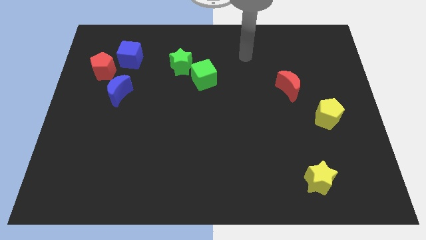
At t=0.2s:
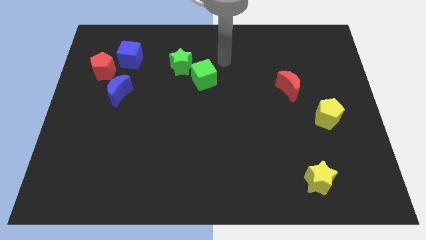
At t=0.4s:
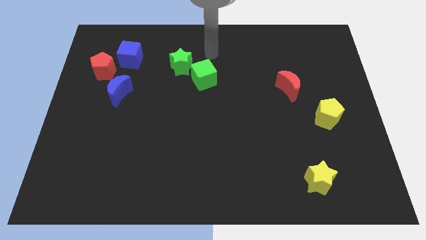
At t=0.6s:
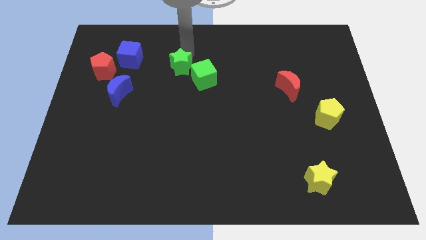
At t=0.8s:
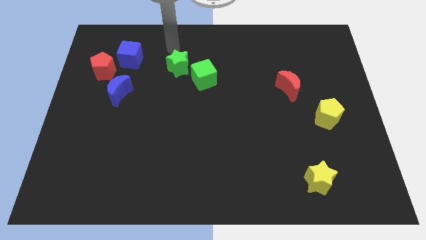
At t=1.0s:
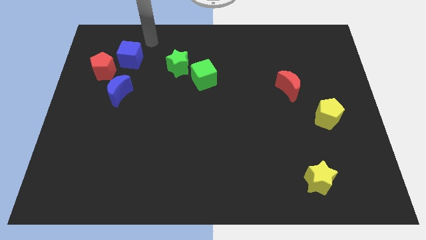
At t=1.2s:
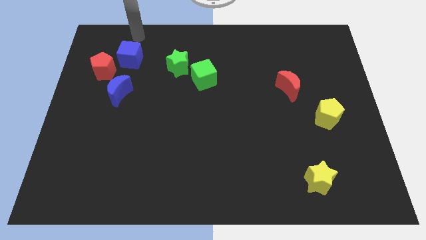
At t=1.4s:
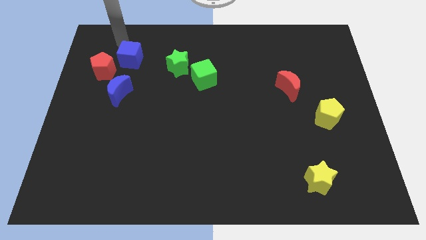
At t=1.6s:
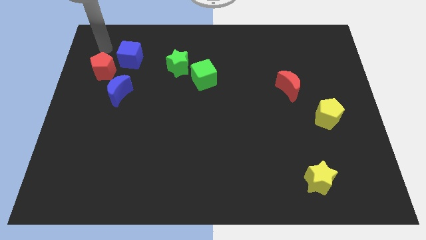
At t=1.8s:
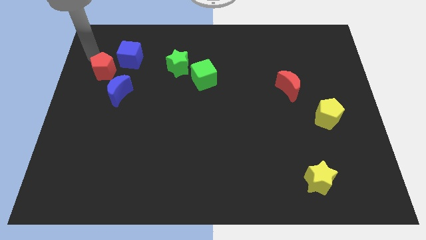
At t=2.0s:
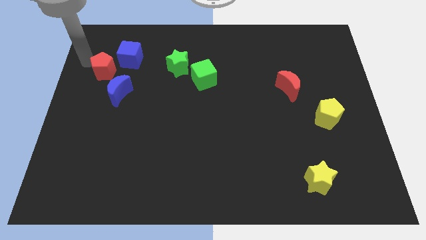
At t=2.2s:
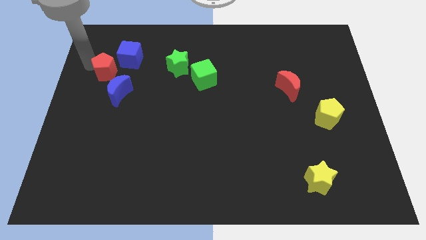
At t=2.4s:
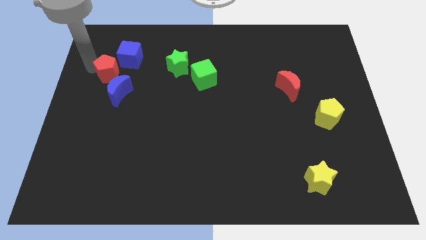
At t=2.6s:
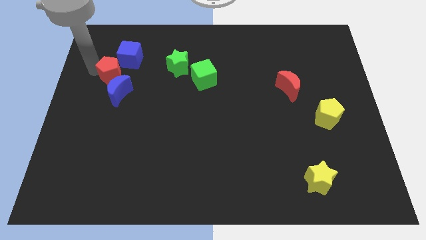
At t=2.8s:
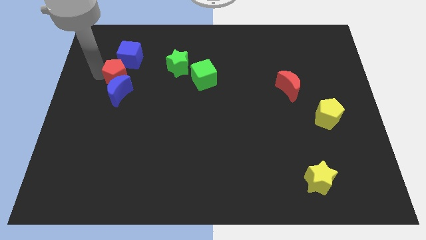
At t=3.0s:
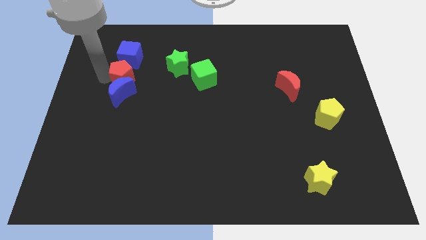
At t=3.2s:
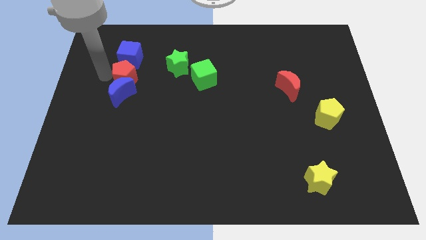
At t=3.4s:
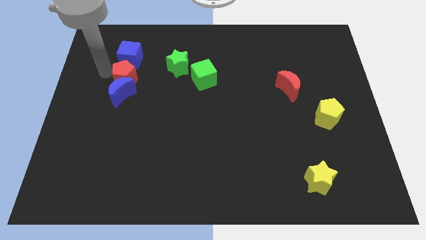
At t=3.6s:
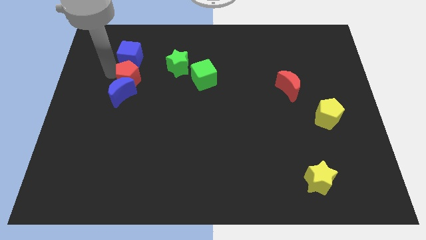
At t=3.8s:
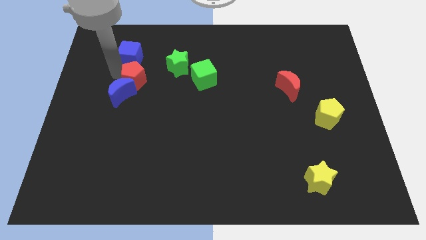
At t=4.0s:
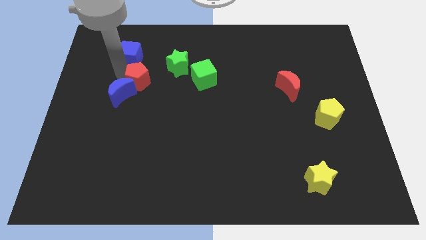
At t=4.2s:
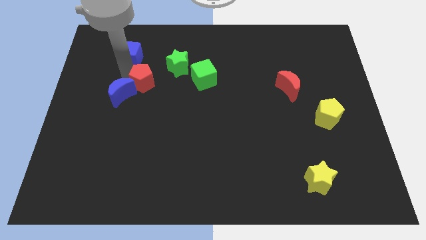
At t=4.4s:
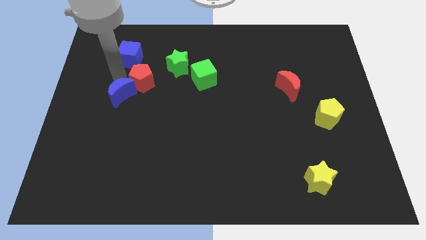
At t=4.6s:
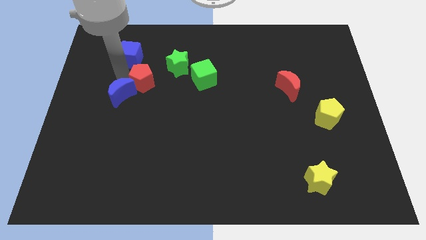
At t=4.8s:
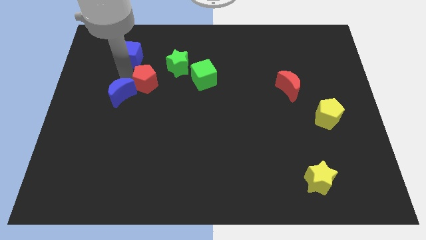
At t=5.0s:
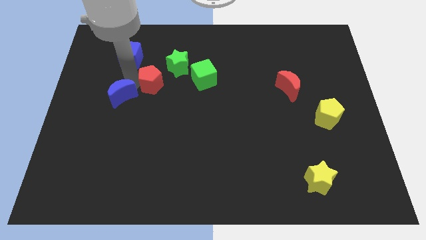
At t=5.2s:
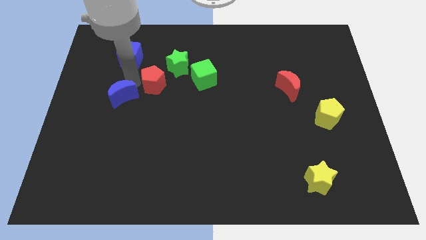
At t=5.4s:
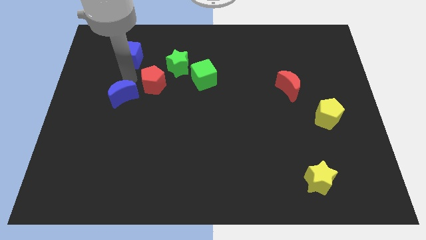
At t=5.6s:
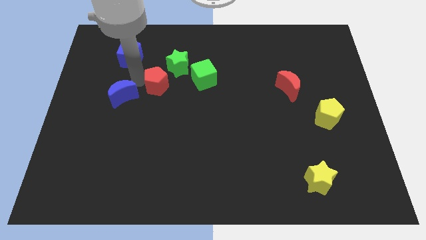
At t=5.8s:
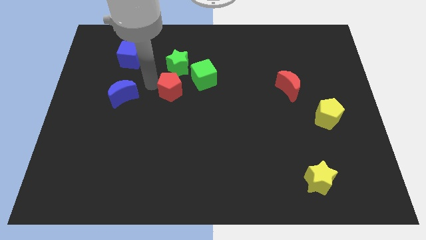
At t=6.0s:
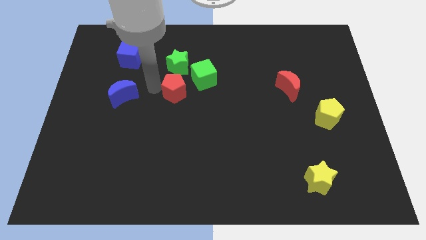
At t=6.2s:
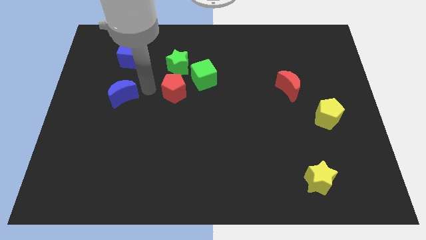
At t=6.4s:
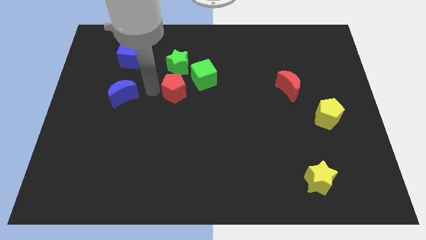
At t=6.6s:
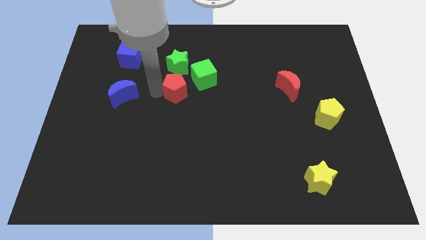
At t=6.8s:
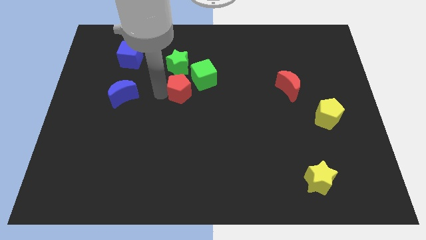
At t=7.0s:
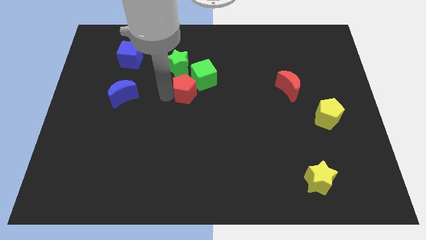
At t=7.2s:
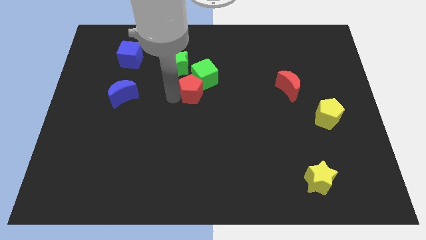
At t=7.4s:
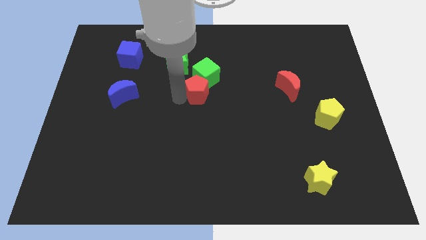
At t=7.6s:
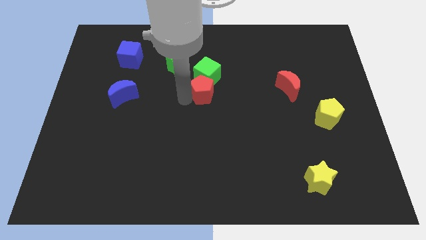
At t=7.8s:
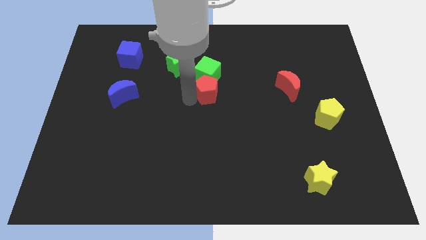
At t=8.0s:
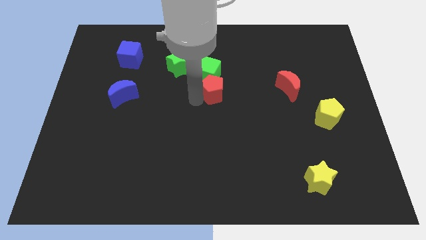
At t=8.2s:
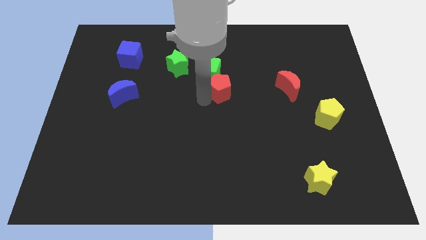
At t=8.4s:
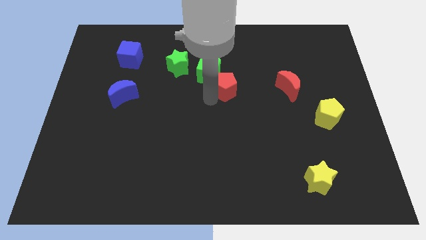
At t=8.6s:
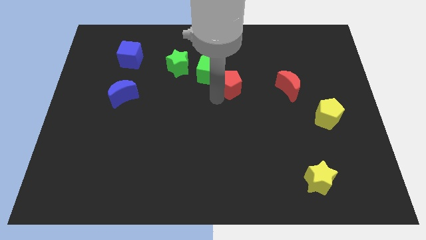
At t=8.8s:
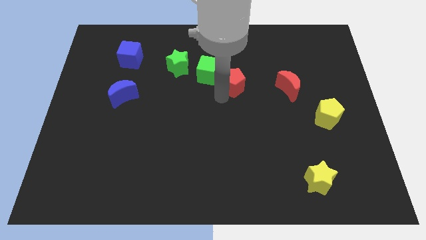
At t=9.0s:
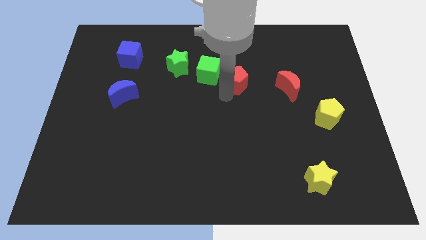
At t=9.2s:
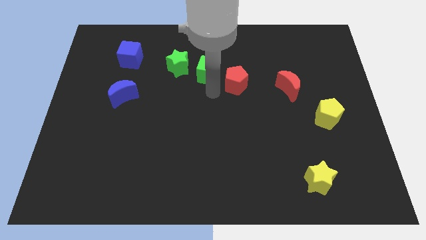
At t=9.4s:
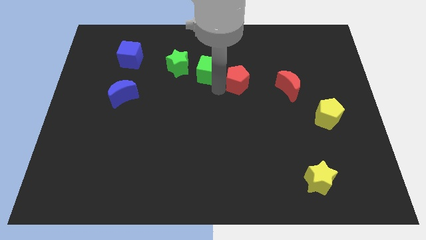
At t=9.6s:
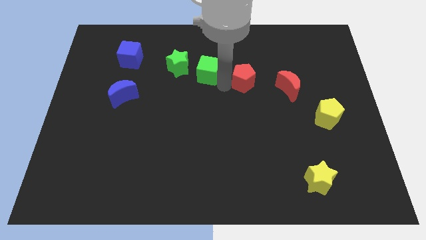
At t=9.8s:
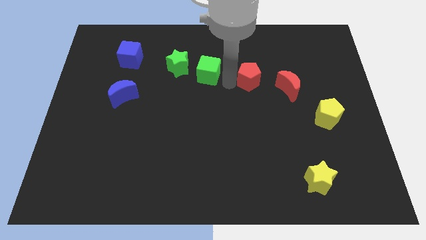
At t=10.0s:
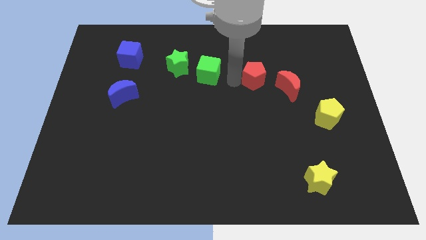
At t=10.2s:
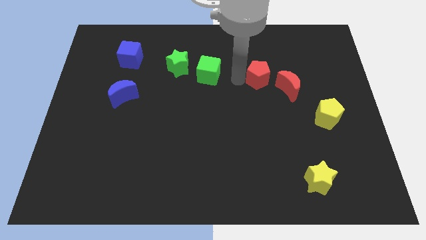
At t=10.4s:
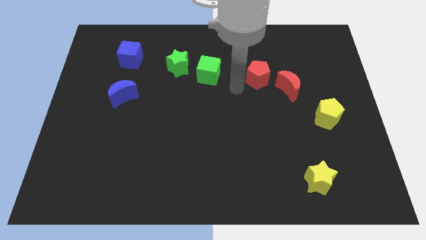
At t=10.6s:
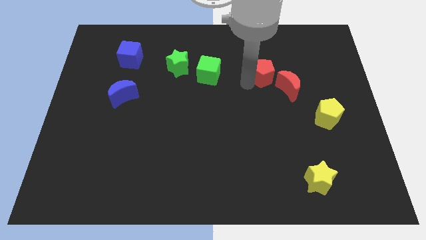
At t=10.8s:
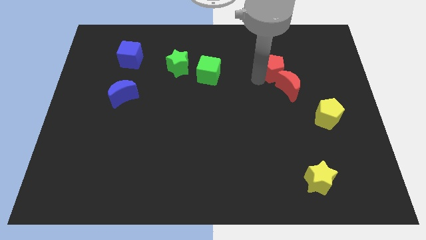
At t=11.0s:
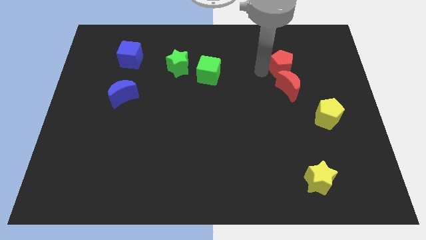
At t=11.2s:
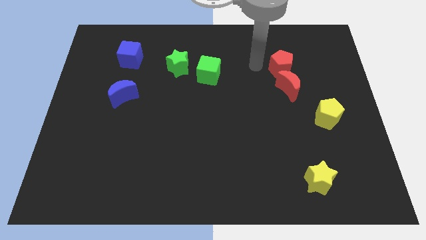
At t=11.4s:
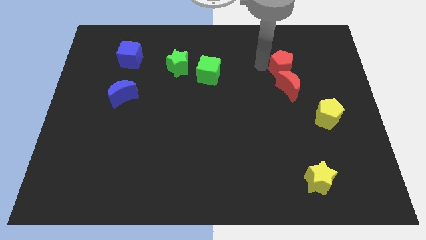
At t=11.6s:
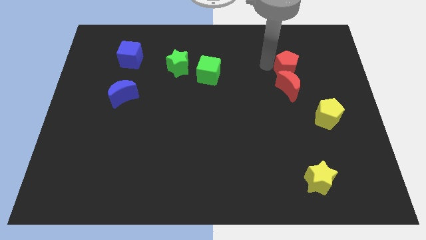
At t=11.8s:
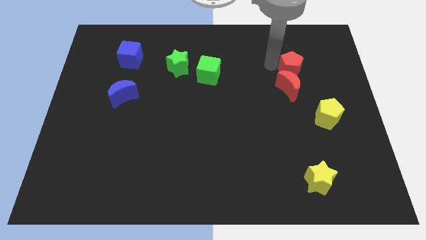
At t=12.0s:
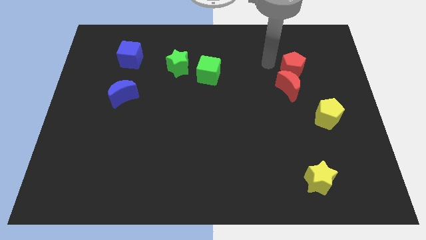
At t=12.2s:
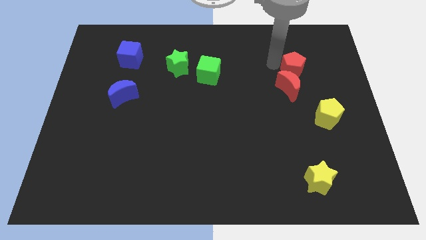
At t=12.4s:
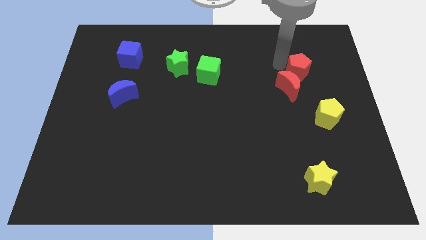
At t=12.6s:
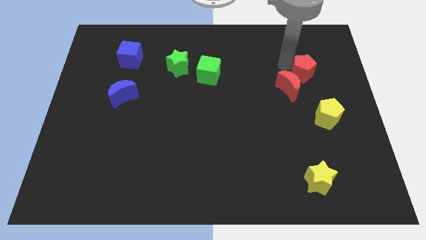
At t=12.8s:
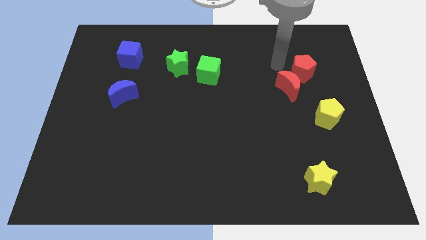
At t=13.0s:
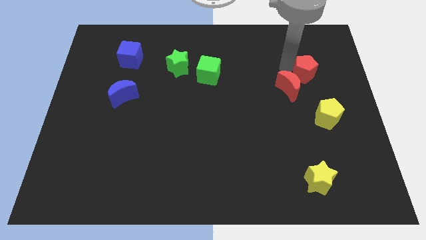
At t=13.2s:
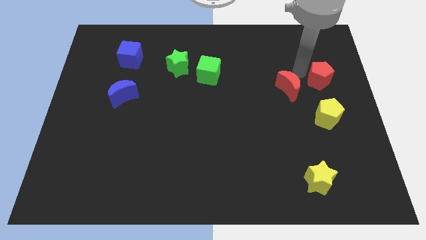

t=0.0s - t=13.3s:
put the red pentagon to the right side
